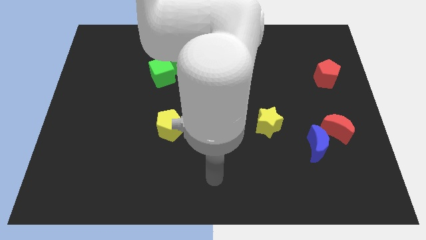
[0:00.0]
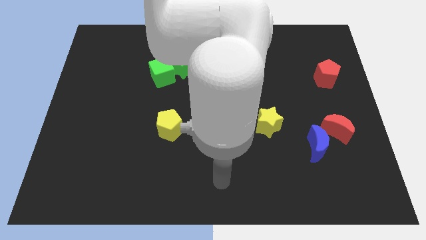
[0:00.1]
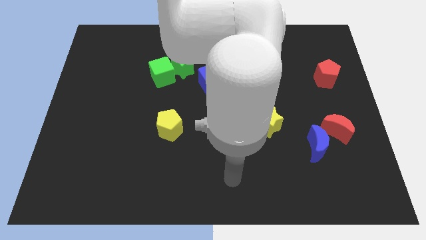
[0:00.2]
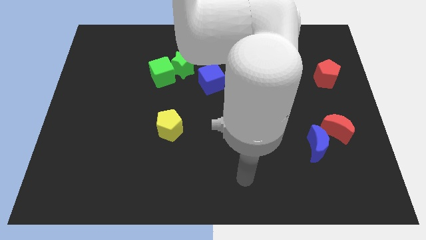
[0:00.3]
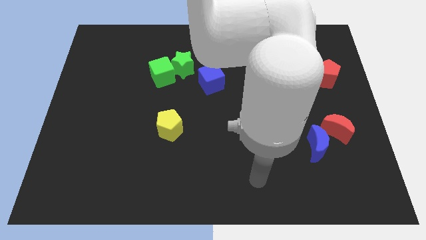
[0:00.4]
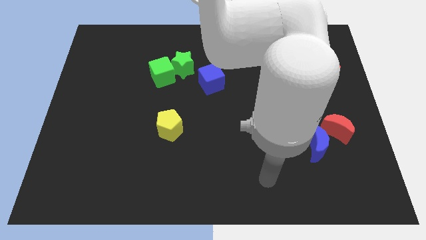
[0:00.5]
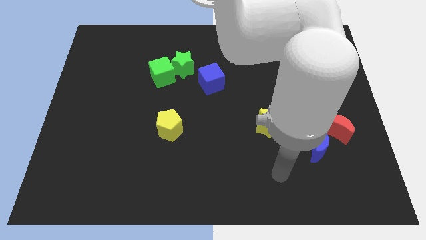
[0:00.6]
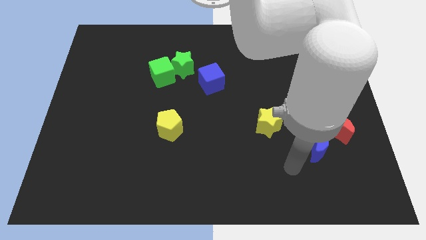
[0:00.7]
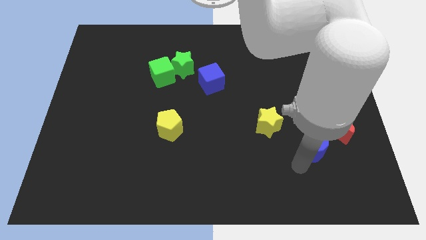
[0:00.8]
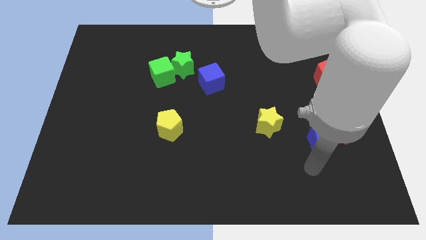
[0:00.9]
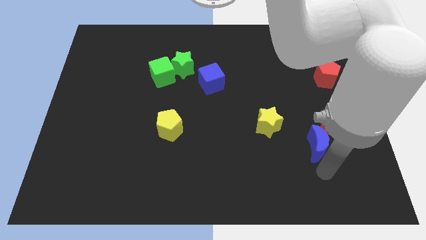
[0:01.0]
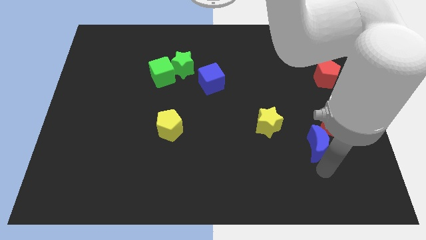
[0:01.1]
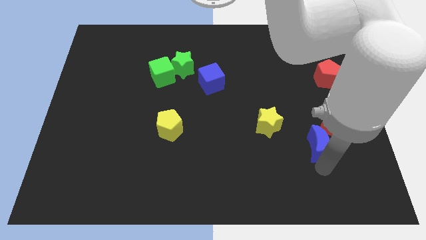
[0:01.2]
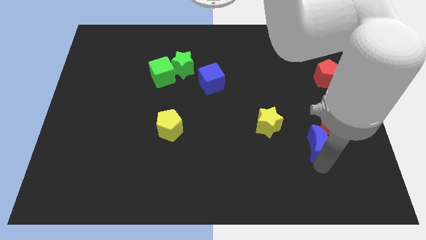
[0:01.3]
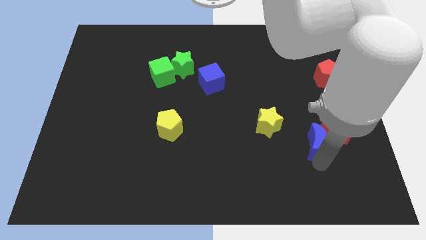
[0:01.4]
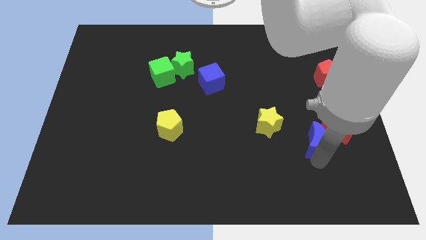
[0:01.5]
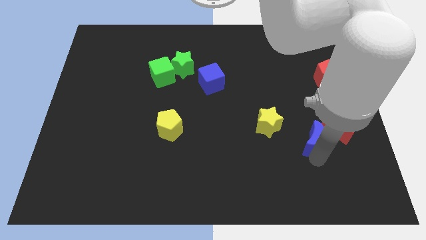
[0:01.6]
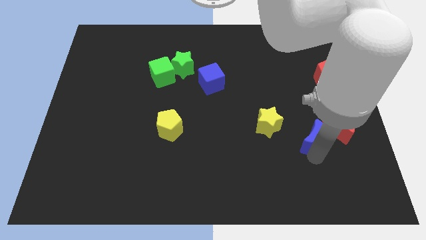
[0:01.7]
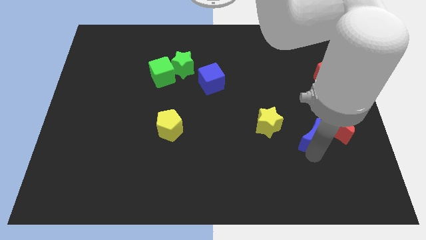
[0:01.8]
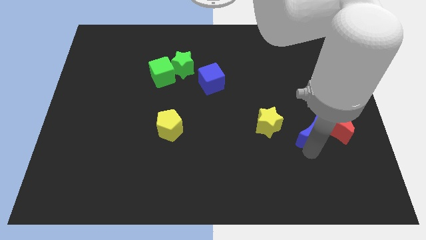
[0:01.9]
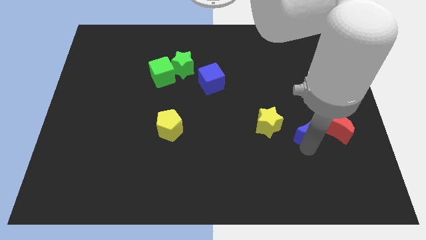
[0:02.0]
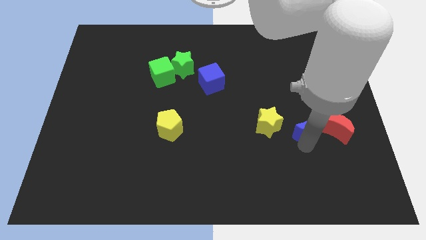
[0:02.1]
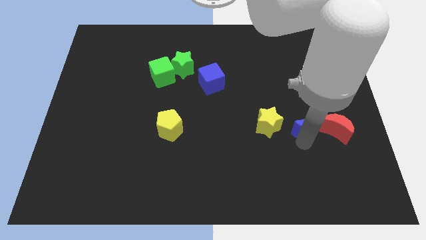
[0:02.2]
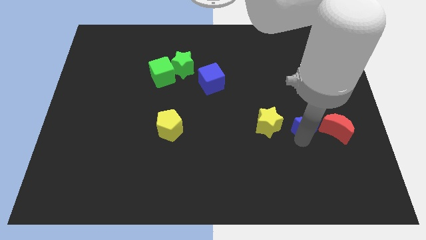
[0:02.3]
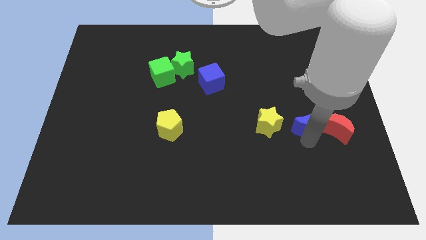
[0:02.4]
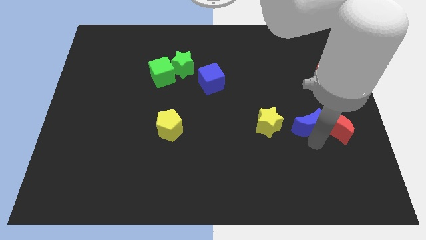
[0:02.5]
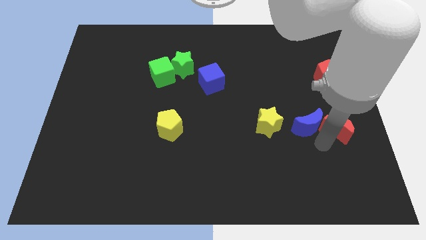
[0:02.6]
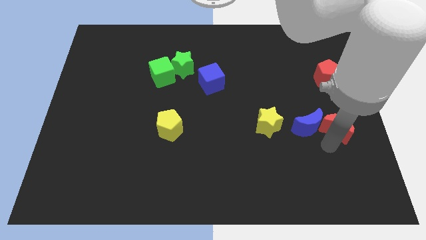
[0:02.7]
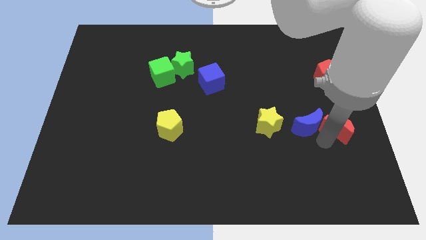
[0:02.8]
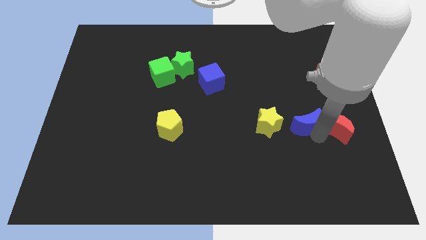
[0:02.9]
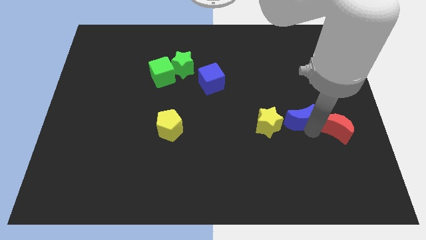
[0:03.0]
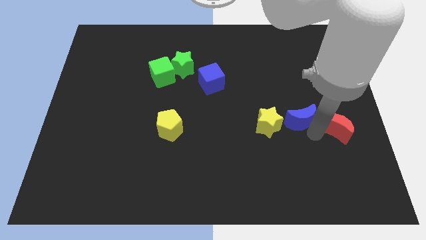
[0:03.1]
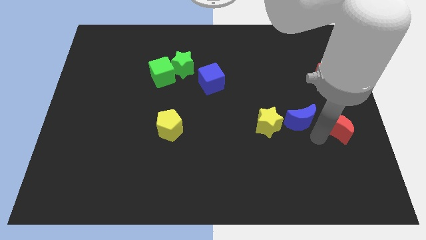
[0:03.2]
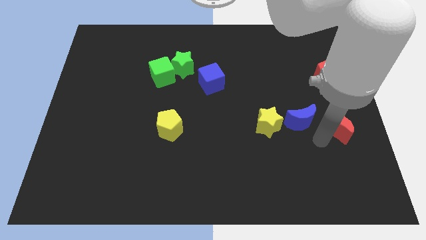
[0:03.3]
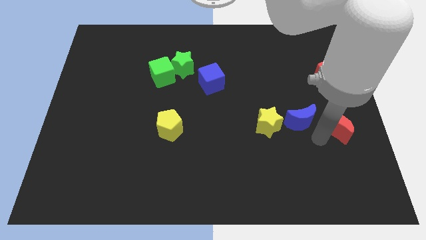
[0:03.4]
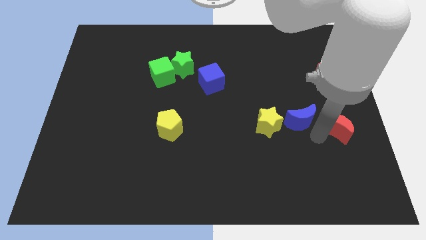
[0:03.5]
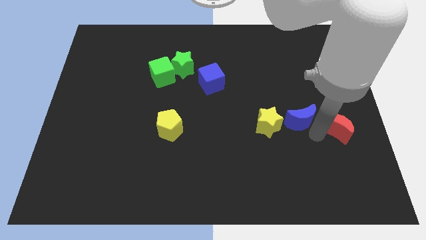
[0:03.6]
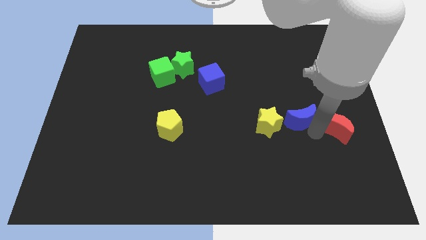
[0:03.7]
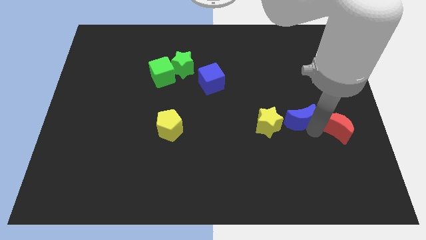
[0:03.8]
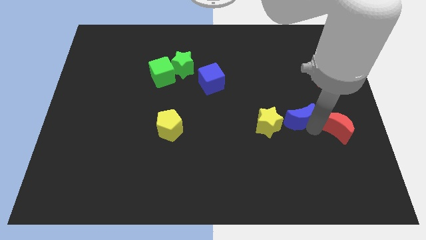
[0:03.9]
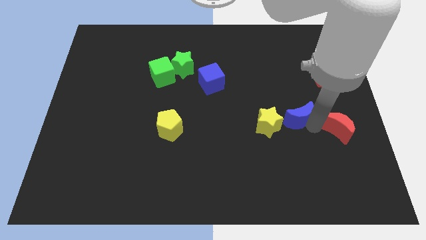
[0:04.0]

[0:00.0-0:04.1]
push the blue moon upwards and then left slightly

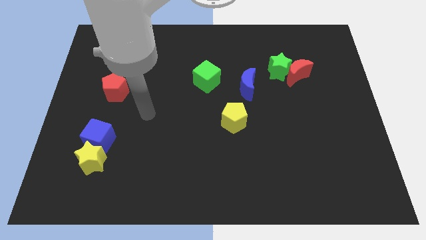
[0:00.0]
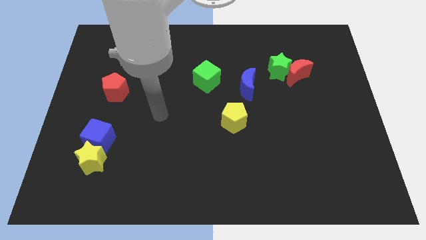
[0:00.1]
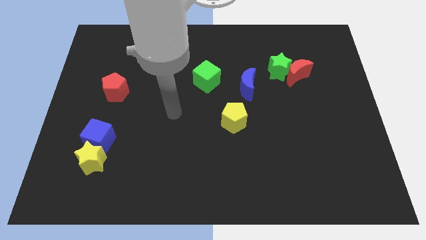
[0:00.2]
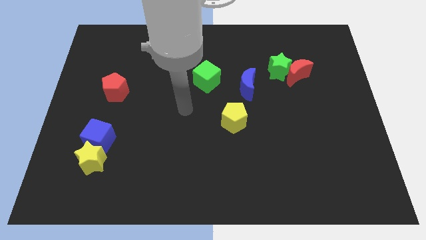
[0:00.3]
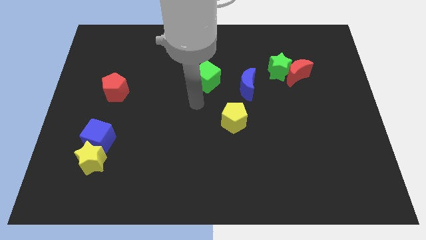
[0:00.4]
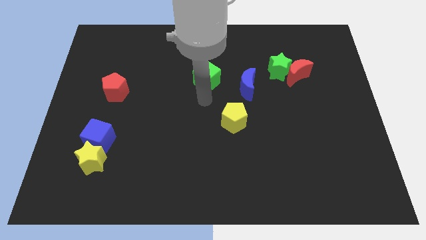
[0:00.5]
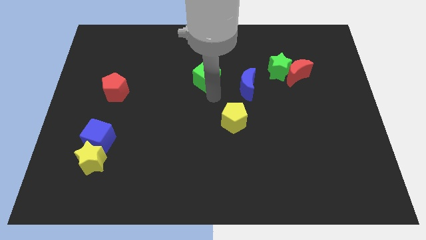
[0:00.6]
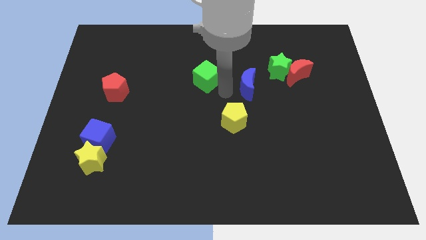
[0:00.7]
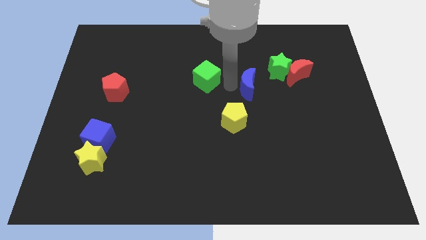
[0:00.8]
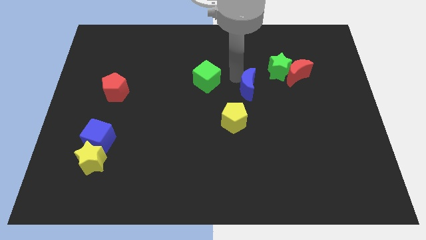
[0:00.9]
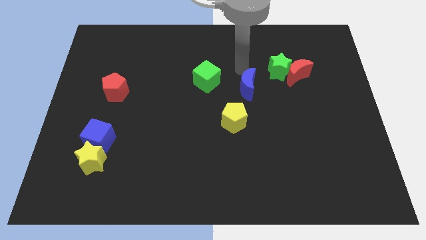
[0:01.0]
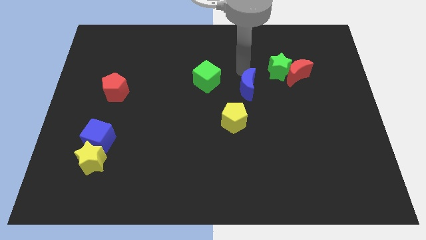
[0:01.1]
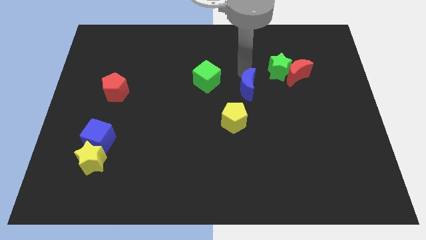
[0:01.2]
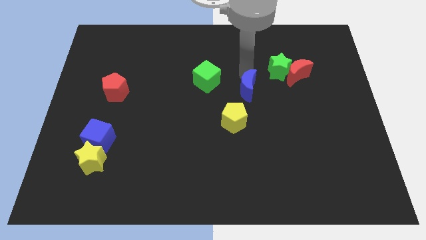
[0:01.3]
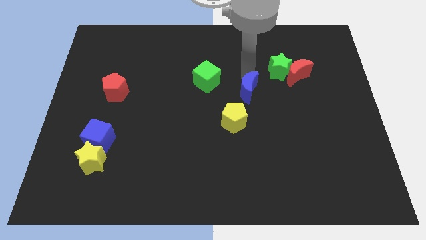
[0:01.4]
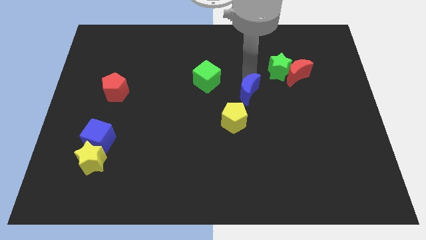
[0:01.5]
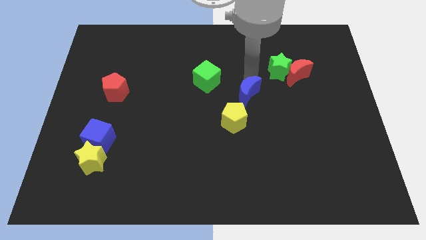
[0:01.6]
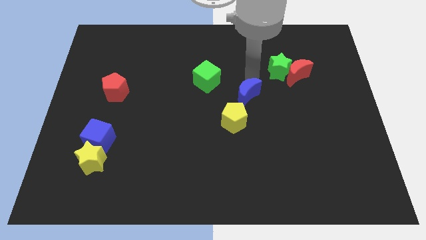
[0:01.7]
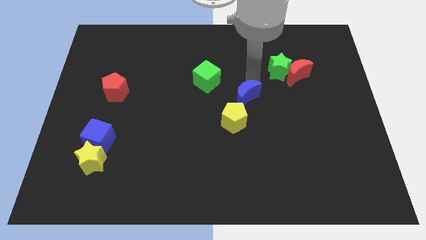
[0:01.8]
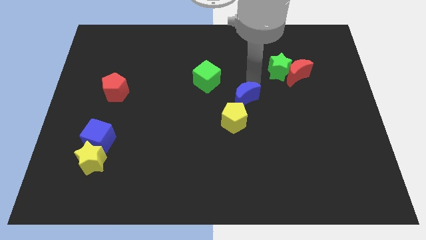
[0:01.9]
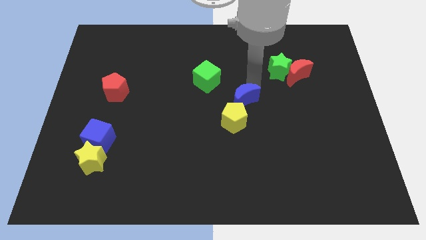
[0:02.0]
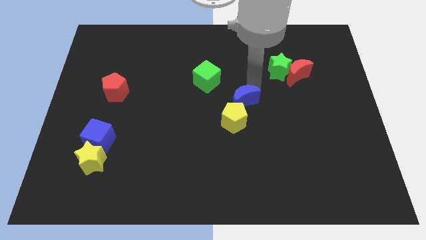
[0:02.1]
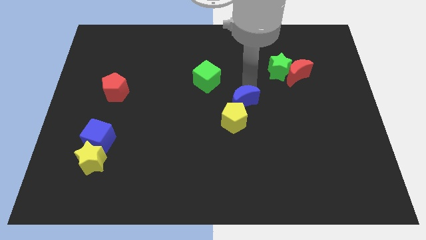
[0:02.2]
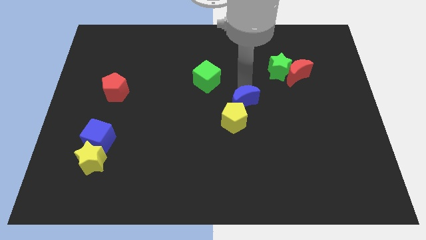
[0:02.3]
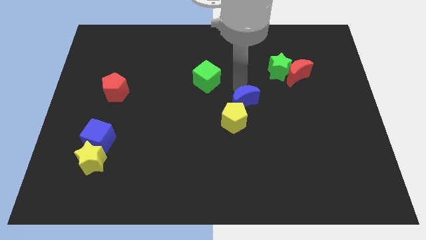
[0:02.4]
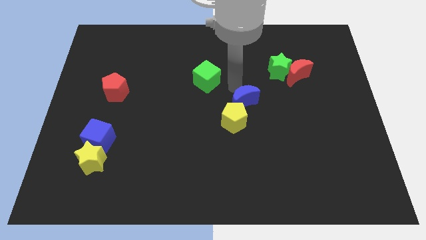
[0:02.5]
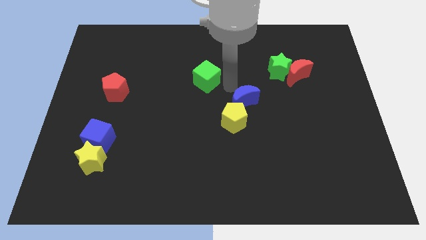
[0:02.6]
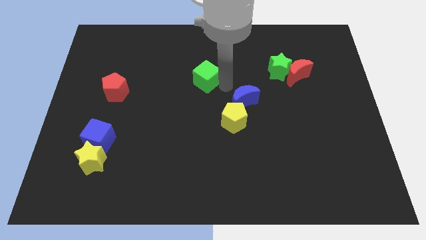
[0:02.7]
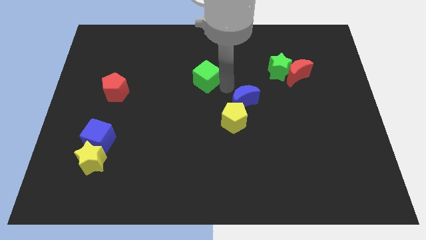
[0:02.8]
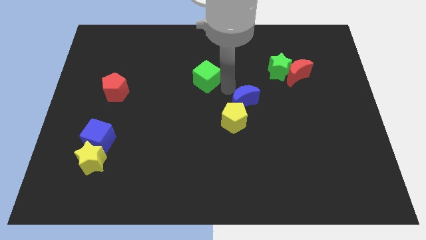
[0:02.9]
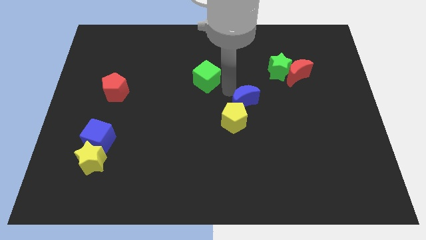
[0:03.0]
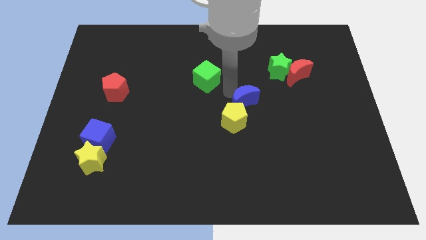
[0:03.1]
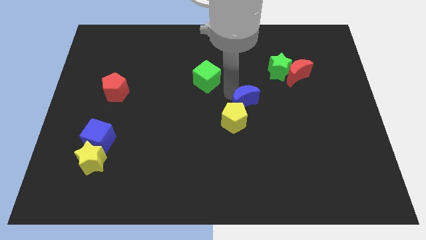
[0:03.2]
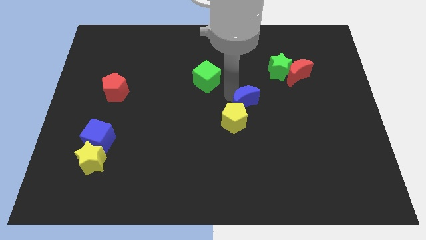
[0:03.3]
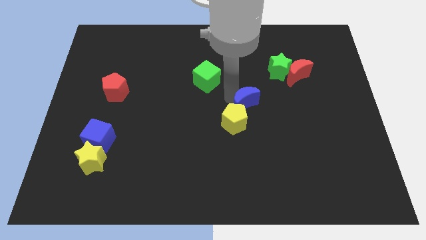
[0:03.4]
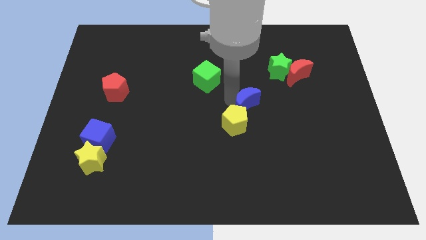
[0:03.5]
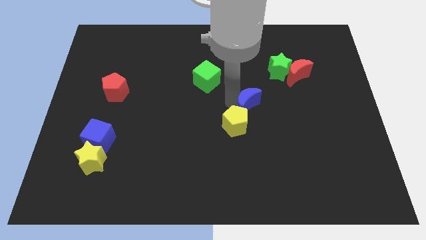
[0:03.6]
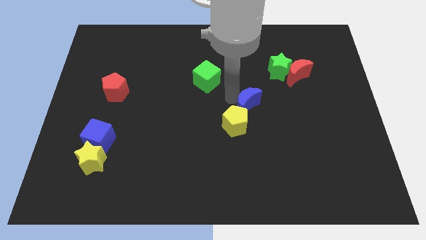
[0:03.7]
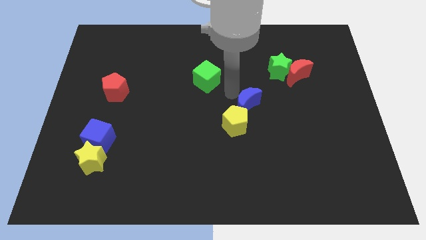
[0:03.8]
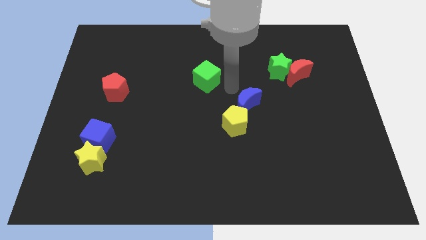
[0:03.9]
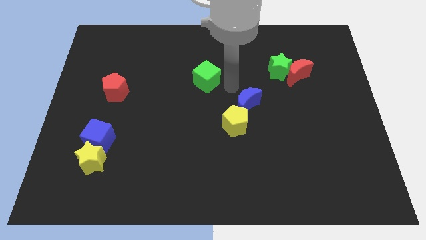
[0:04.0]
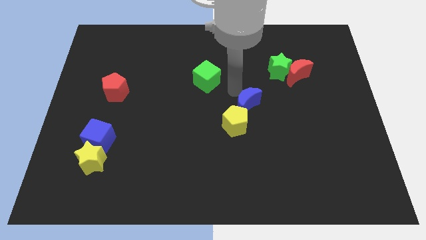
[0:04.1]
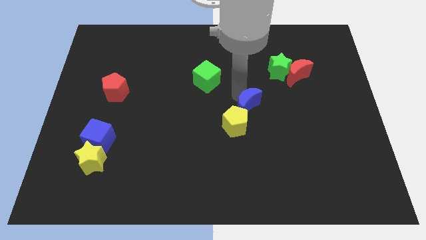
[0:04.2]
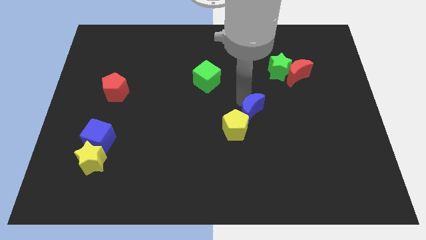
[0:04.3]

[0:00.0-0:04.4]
slightly move the blue moon downwards
